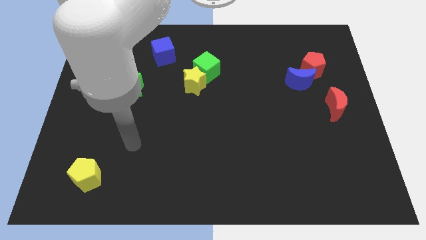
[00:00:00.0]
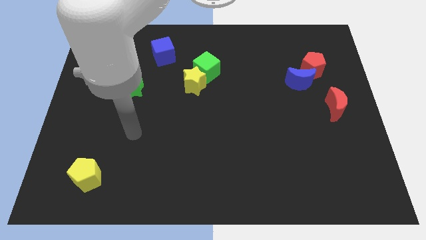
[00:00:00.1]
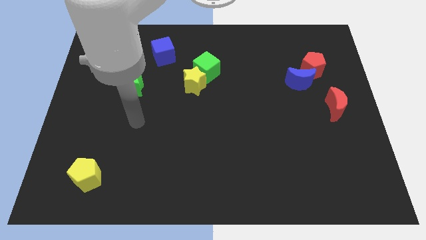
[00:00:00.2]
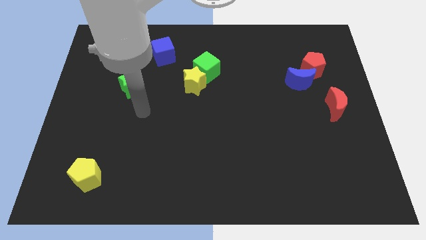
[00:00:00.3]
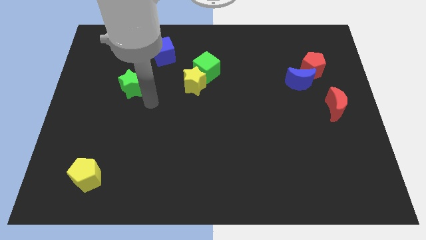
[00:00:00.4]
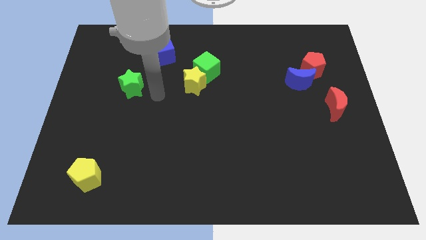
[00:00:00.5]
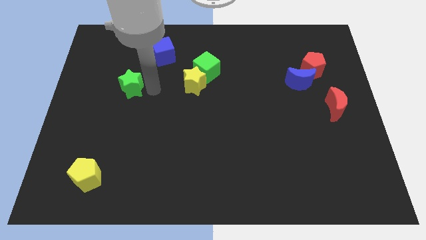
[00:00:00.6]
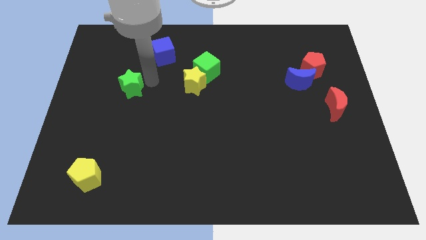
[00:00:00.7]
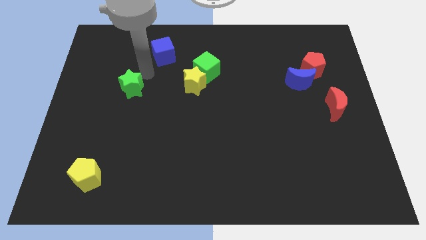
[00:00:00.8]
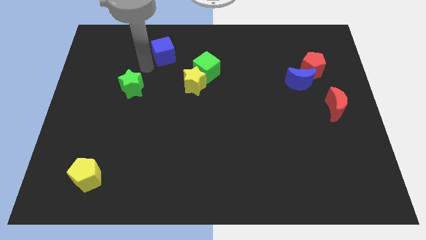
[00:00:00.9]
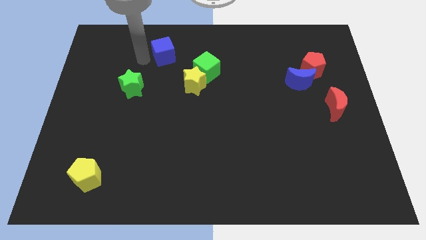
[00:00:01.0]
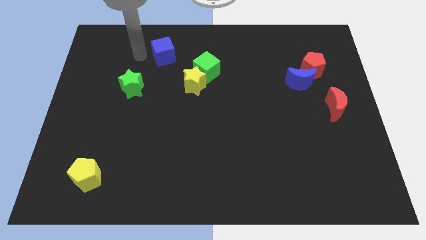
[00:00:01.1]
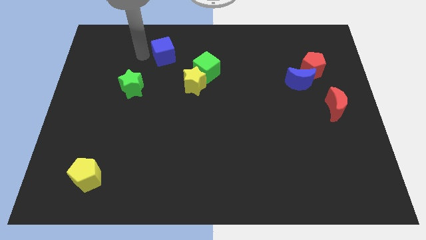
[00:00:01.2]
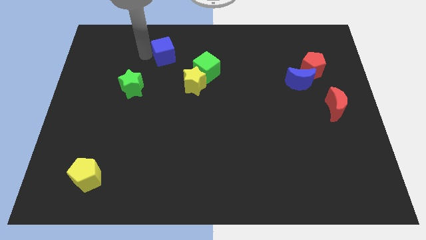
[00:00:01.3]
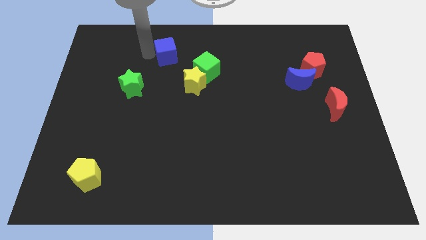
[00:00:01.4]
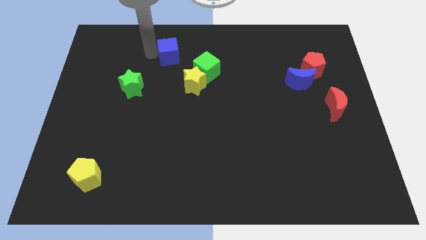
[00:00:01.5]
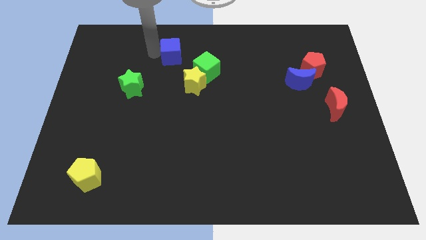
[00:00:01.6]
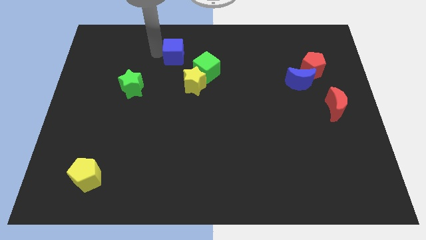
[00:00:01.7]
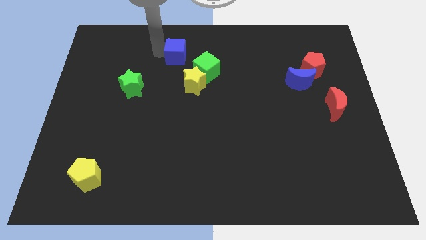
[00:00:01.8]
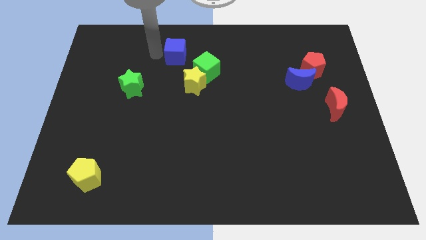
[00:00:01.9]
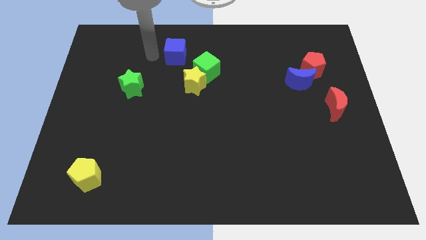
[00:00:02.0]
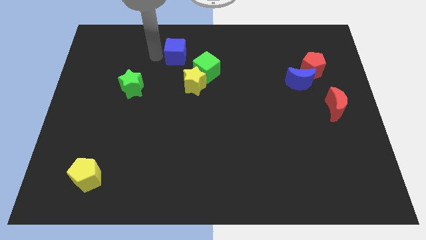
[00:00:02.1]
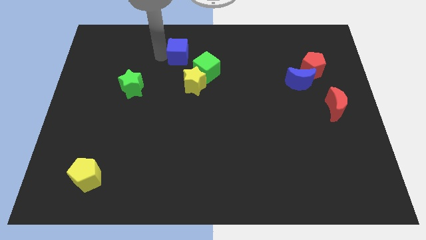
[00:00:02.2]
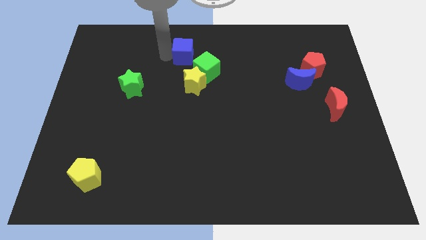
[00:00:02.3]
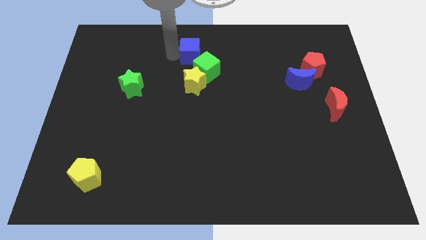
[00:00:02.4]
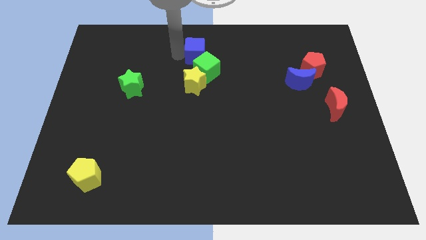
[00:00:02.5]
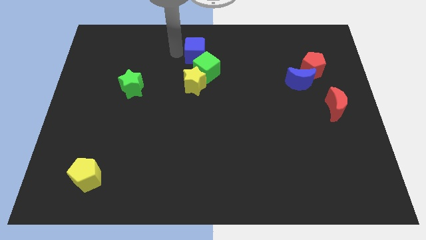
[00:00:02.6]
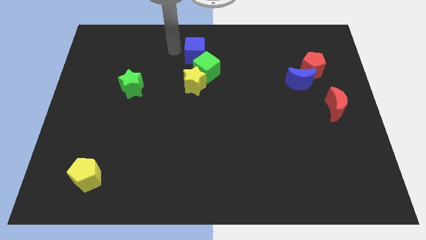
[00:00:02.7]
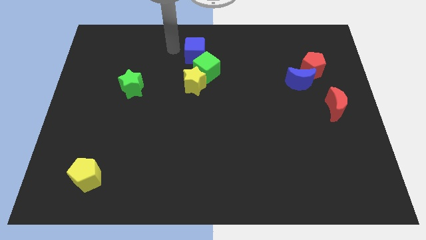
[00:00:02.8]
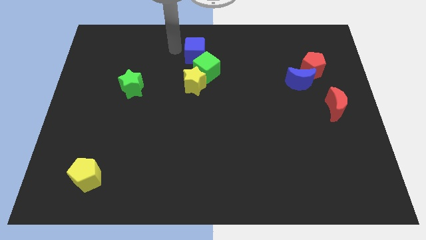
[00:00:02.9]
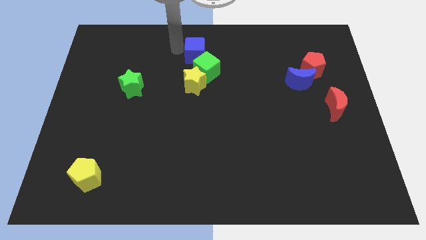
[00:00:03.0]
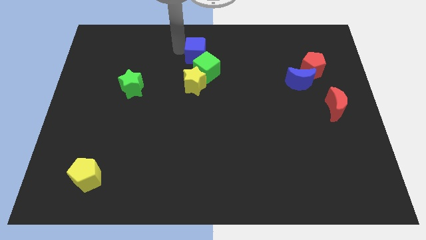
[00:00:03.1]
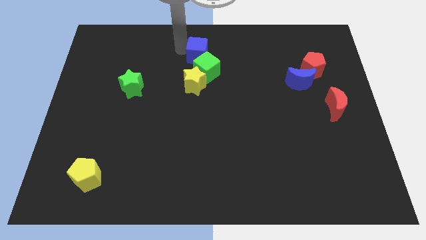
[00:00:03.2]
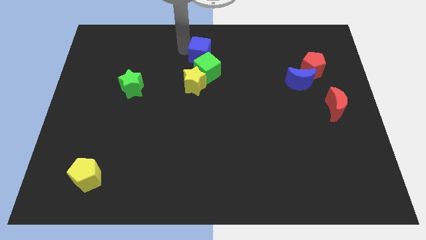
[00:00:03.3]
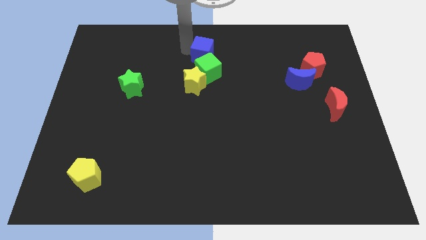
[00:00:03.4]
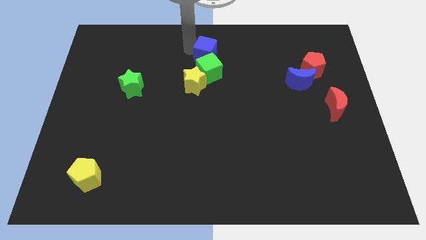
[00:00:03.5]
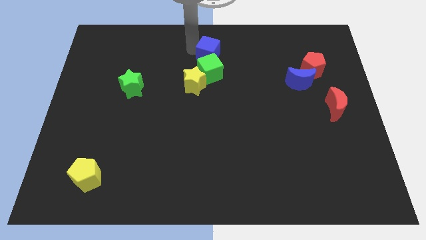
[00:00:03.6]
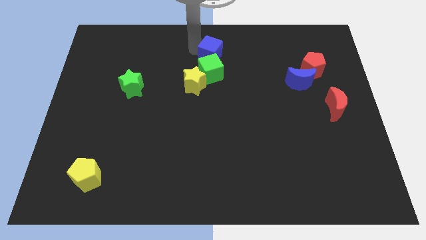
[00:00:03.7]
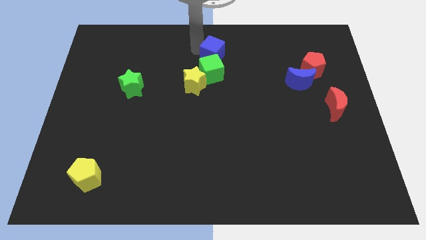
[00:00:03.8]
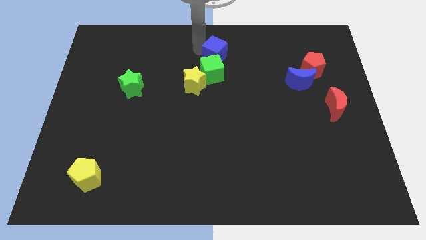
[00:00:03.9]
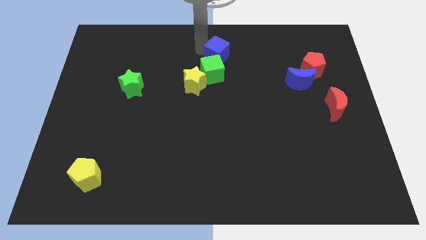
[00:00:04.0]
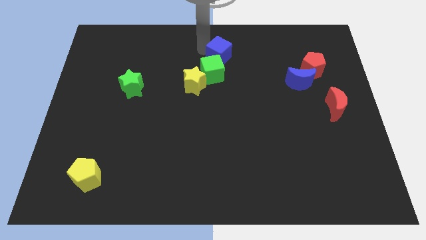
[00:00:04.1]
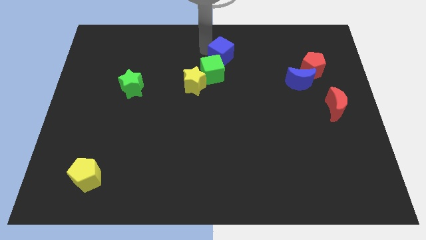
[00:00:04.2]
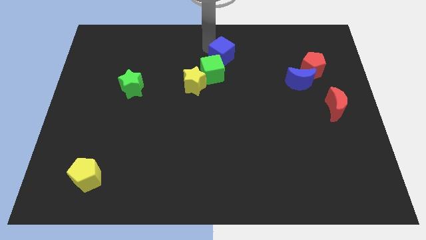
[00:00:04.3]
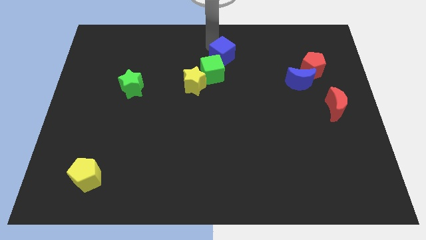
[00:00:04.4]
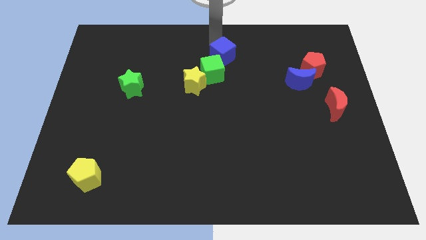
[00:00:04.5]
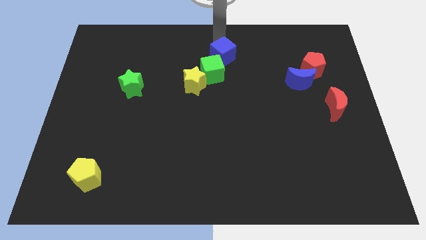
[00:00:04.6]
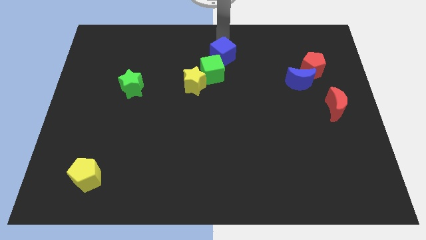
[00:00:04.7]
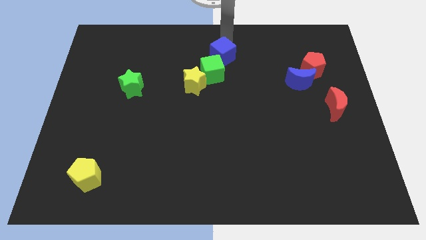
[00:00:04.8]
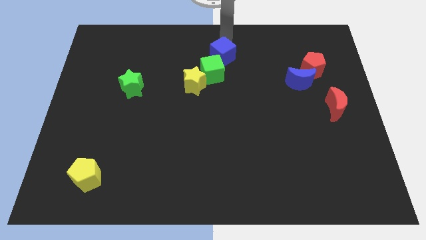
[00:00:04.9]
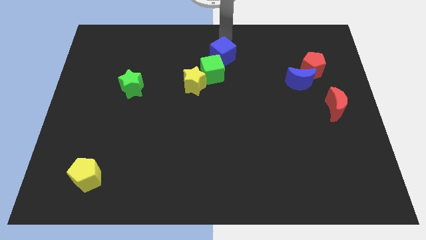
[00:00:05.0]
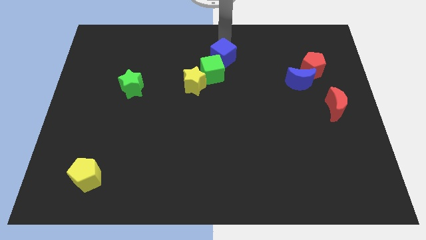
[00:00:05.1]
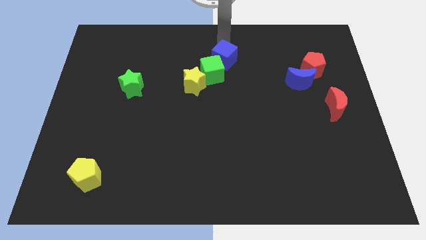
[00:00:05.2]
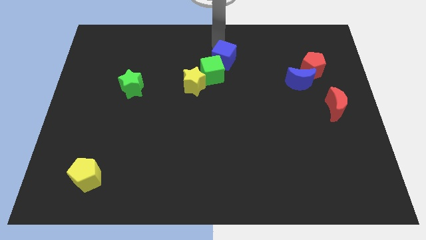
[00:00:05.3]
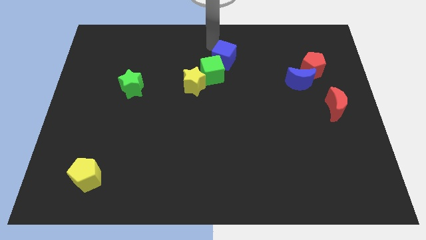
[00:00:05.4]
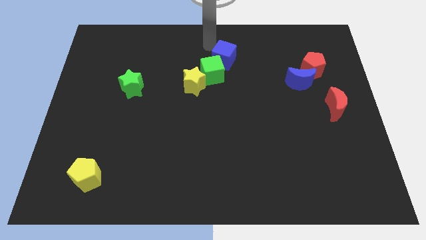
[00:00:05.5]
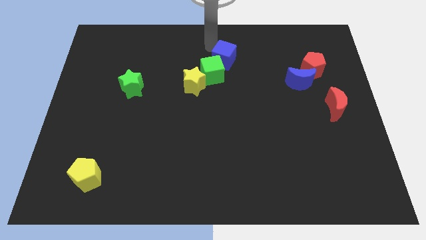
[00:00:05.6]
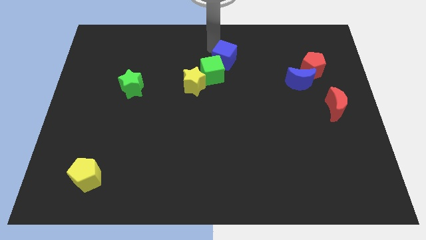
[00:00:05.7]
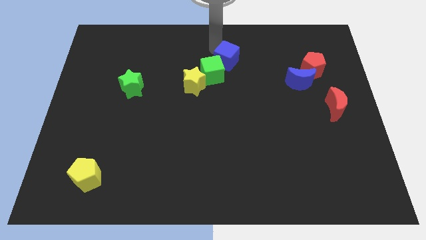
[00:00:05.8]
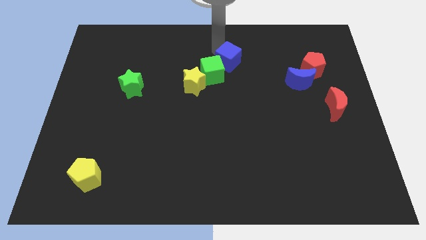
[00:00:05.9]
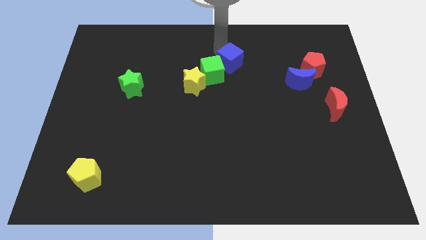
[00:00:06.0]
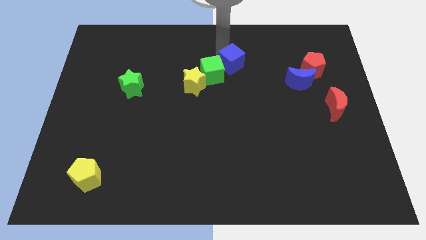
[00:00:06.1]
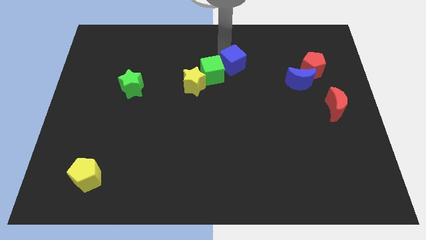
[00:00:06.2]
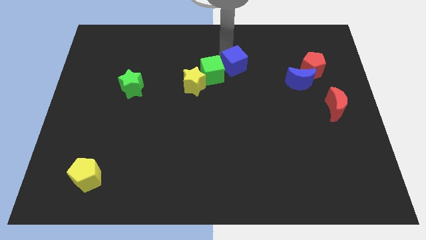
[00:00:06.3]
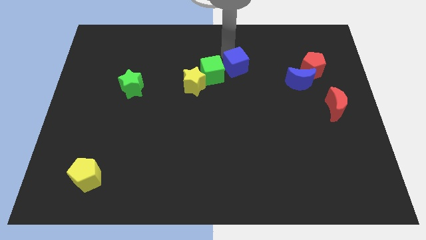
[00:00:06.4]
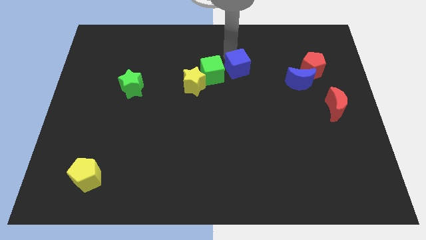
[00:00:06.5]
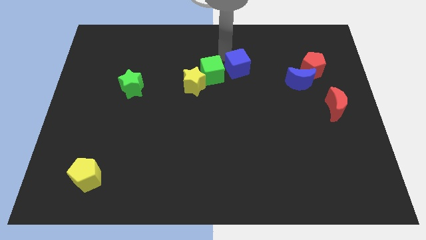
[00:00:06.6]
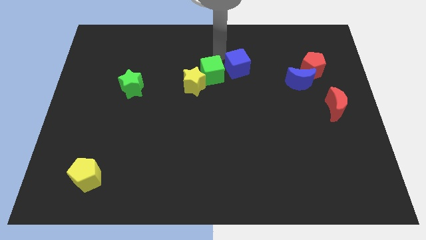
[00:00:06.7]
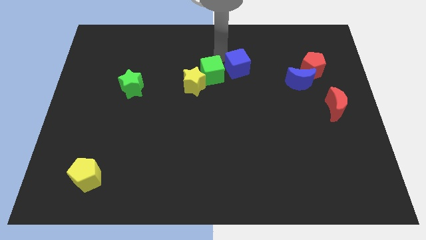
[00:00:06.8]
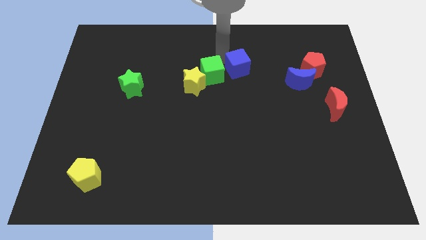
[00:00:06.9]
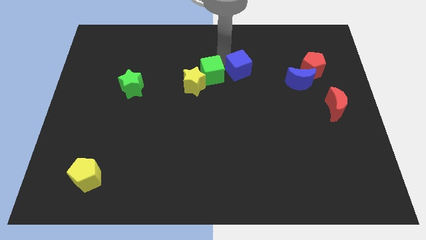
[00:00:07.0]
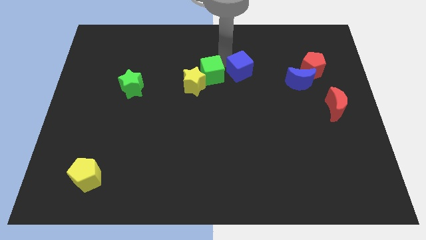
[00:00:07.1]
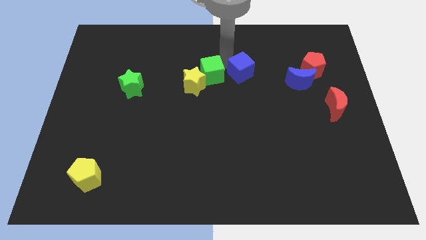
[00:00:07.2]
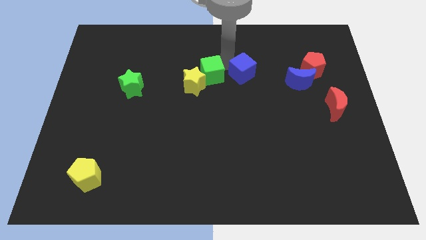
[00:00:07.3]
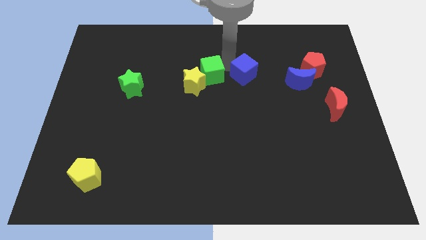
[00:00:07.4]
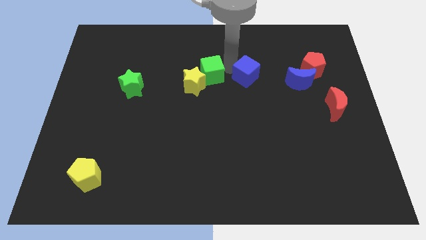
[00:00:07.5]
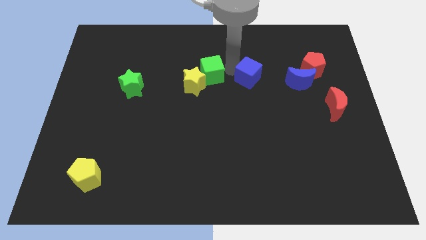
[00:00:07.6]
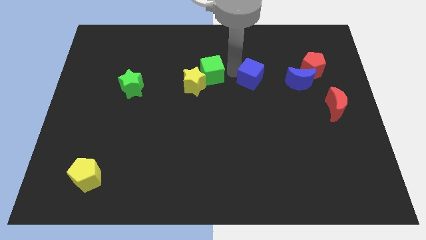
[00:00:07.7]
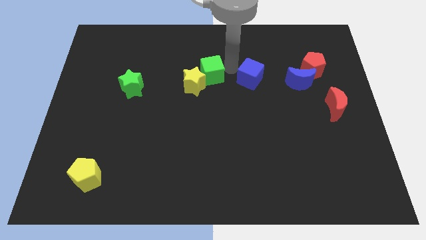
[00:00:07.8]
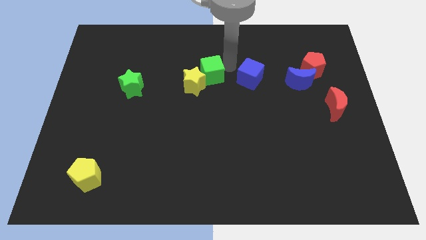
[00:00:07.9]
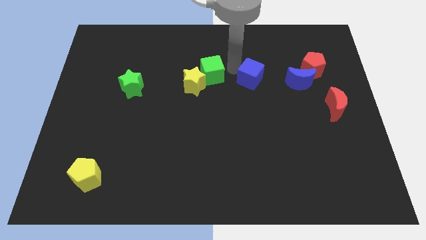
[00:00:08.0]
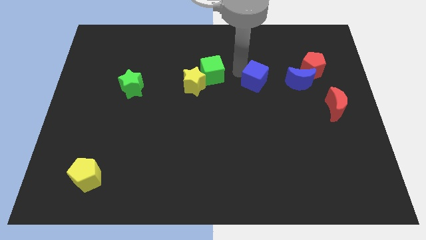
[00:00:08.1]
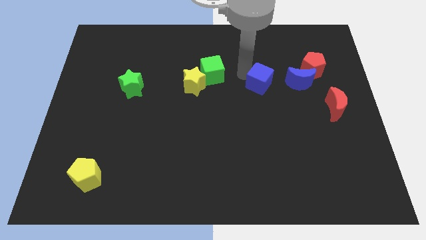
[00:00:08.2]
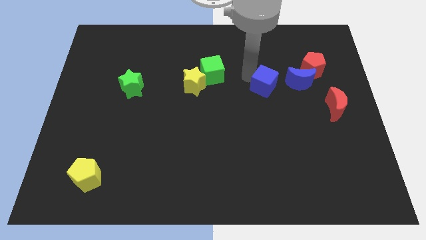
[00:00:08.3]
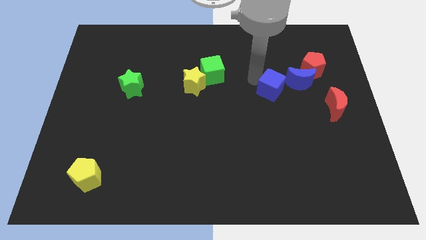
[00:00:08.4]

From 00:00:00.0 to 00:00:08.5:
put the blue cube diagonally down and to the left of the blue moon
